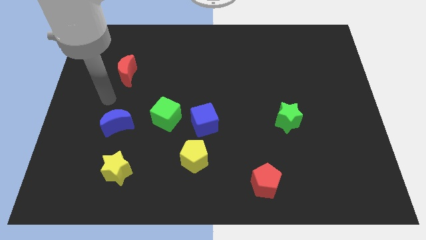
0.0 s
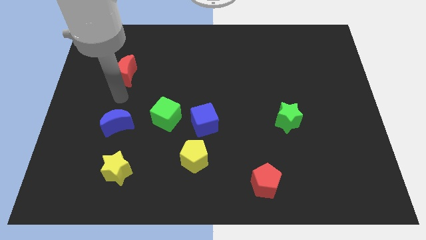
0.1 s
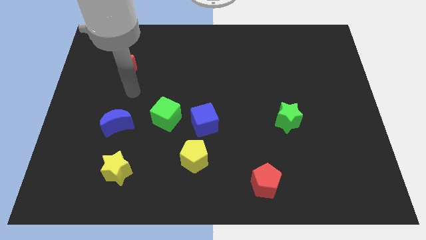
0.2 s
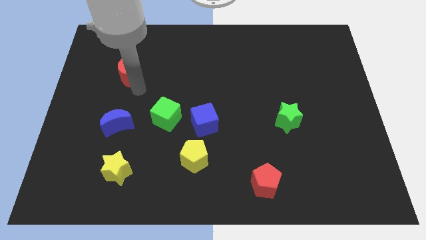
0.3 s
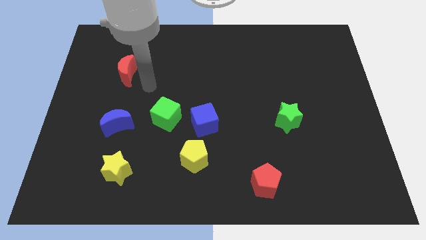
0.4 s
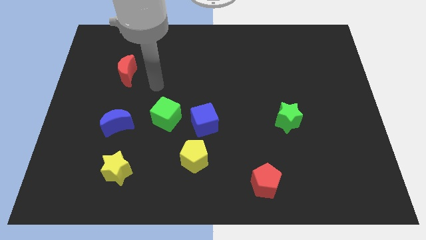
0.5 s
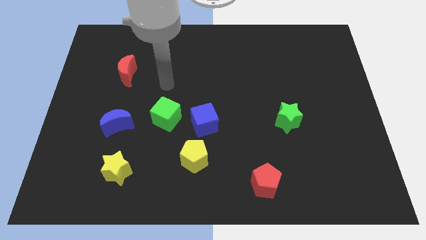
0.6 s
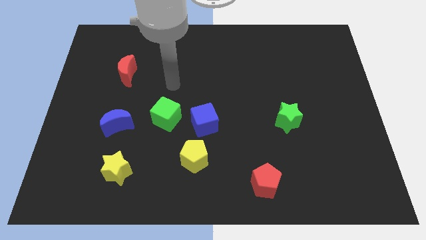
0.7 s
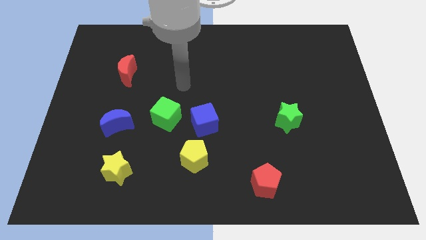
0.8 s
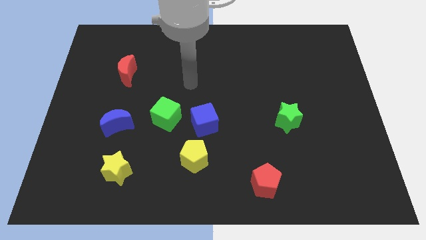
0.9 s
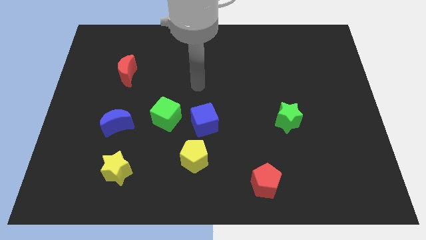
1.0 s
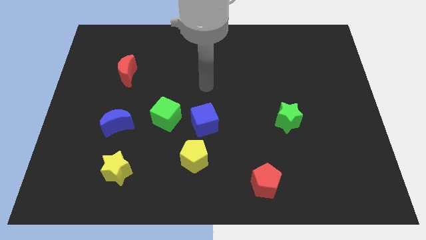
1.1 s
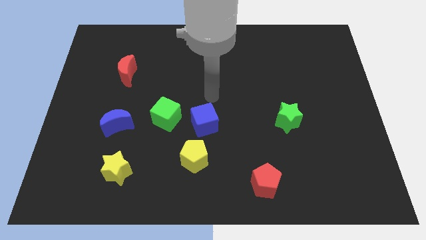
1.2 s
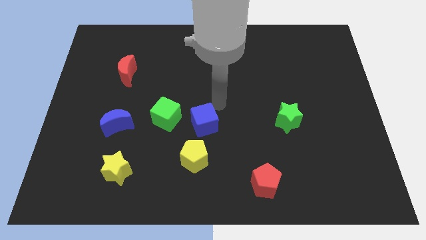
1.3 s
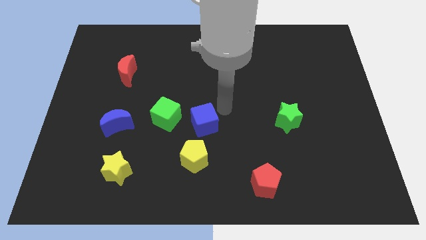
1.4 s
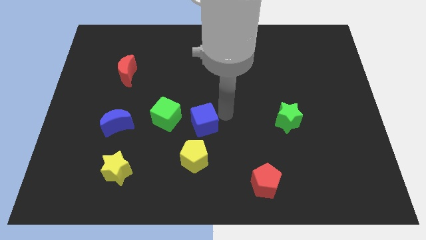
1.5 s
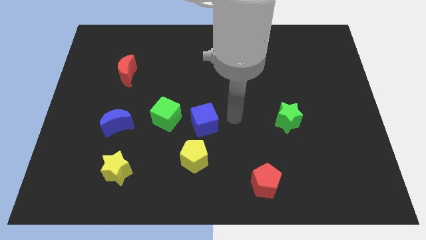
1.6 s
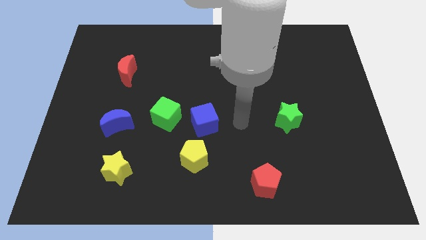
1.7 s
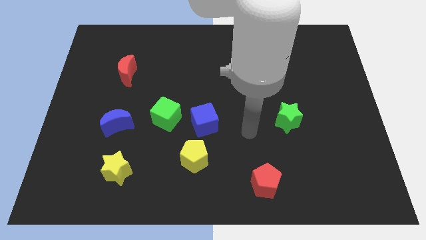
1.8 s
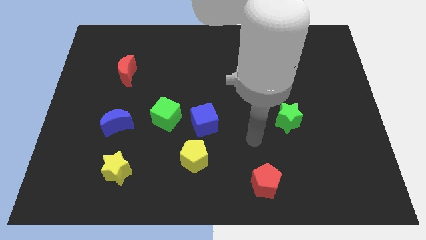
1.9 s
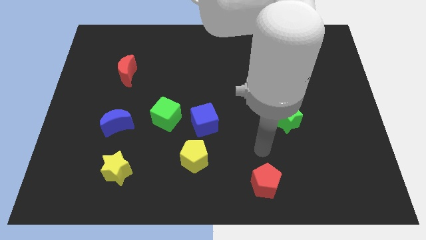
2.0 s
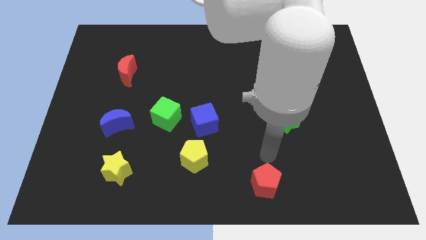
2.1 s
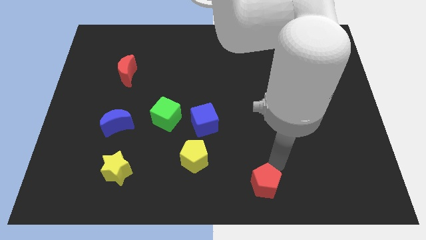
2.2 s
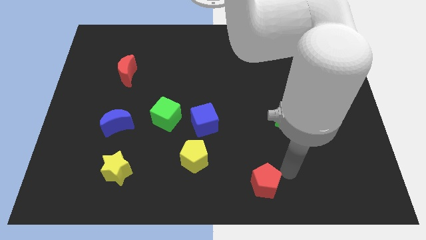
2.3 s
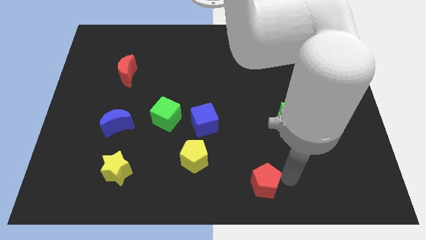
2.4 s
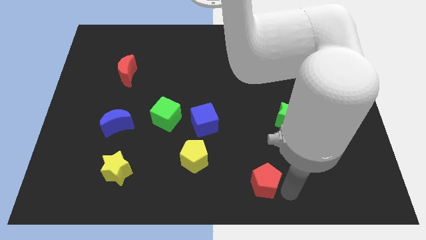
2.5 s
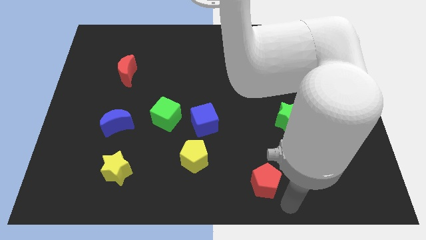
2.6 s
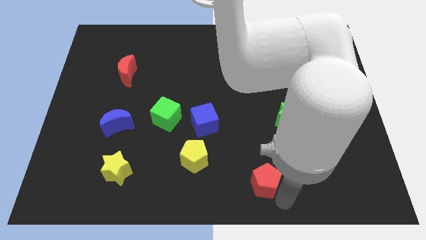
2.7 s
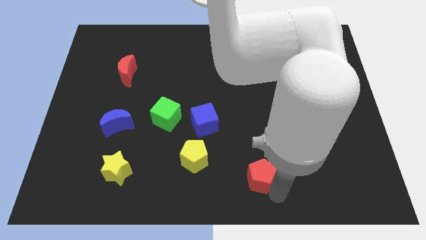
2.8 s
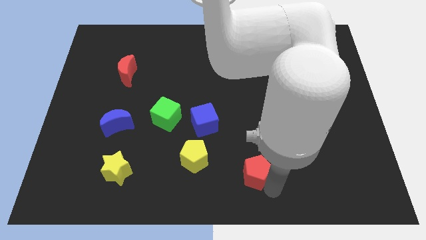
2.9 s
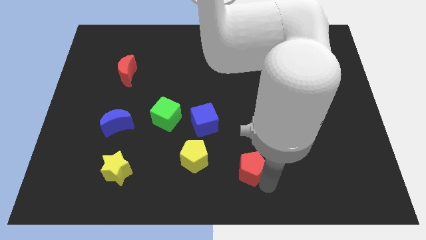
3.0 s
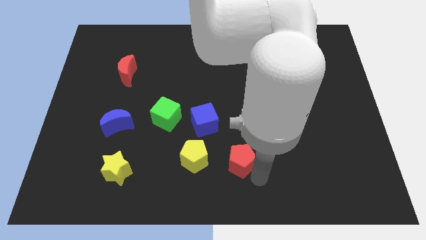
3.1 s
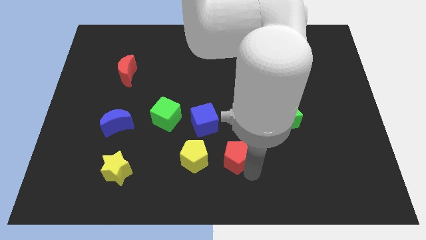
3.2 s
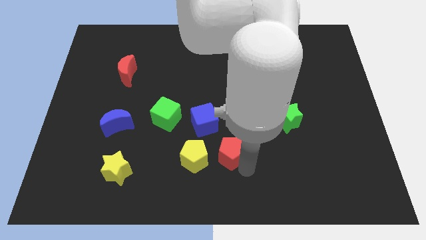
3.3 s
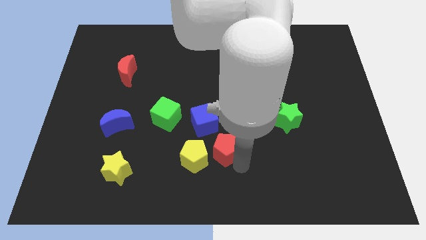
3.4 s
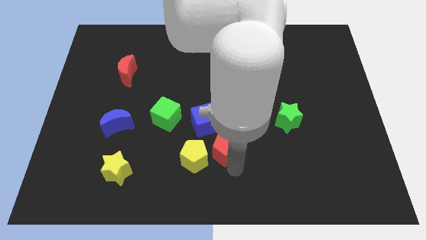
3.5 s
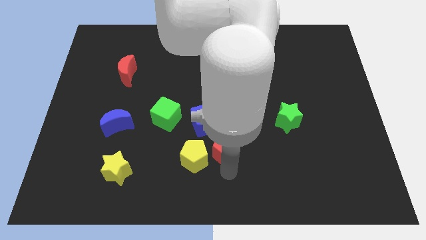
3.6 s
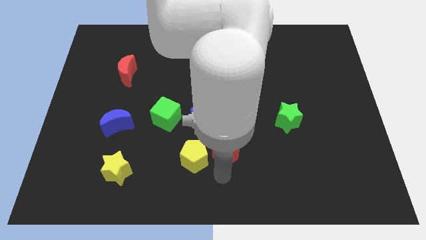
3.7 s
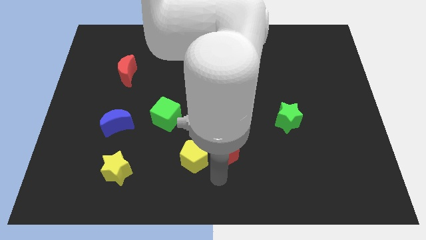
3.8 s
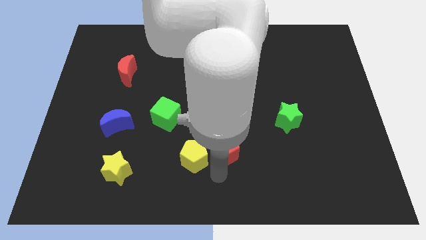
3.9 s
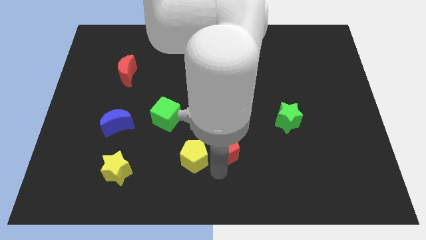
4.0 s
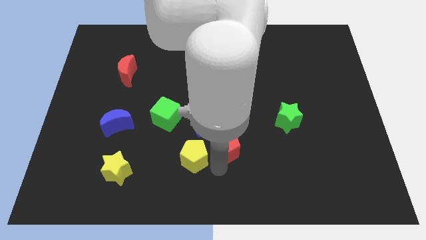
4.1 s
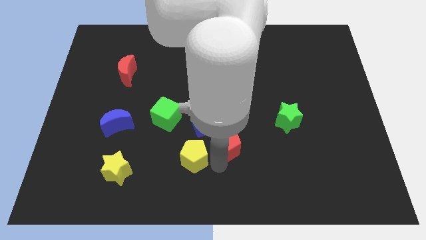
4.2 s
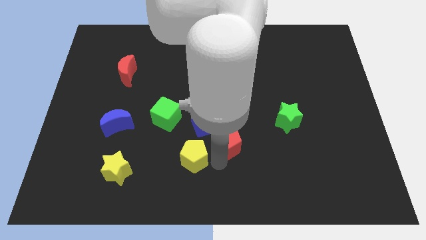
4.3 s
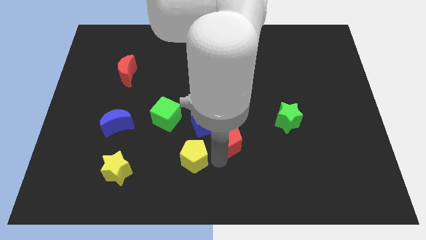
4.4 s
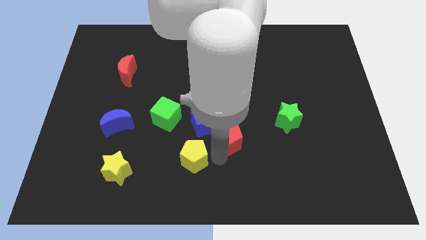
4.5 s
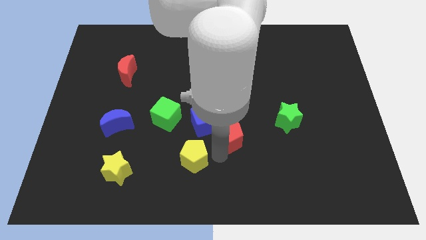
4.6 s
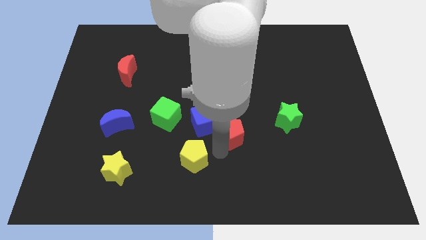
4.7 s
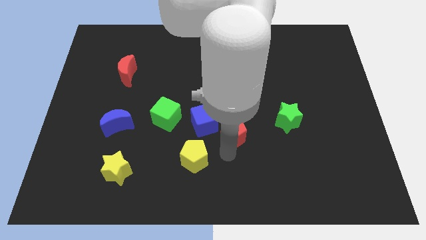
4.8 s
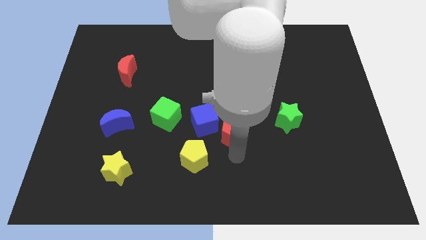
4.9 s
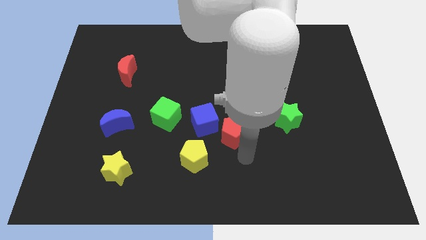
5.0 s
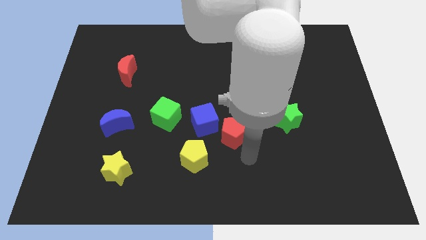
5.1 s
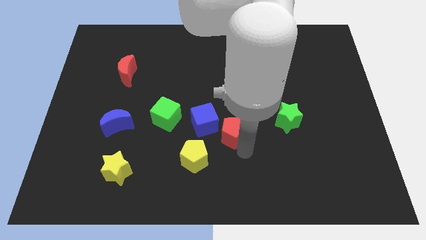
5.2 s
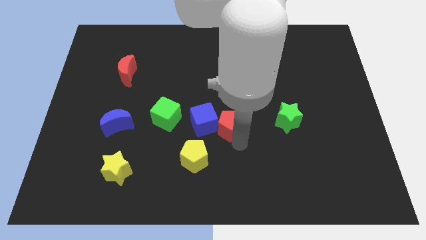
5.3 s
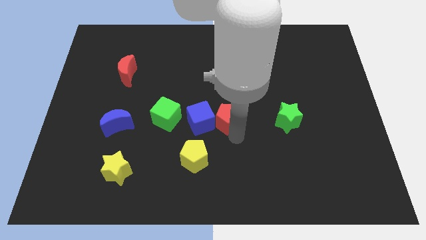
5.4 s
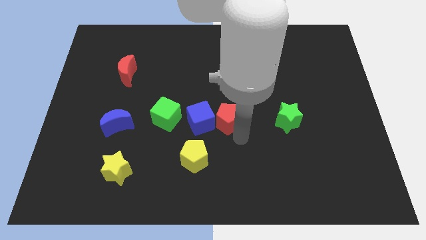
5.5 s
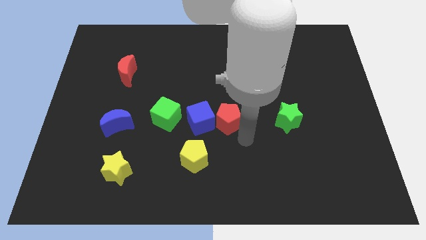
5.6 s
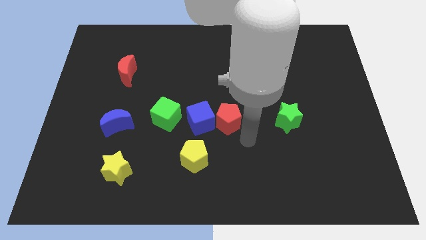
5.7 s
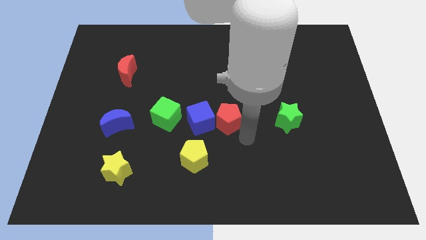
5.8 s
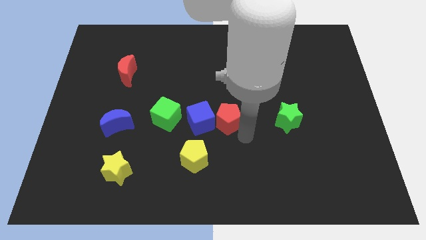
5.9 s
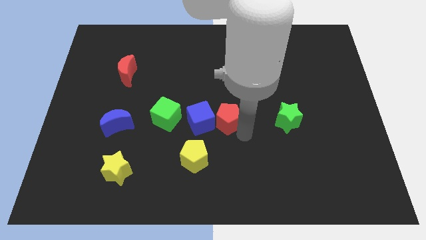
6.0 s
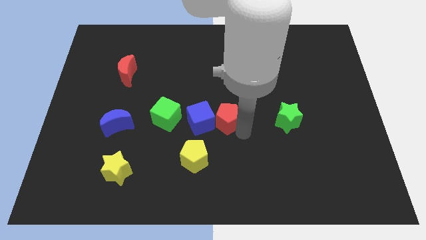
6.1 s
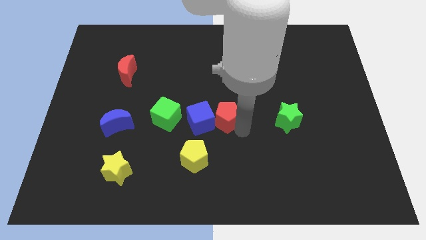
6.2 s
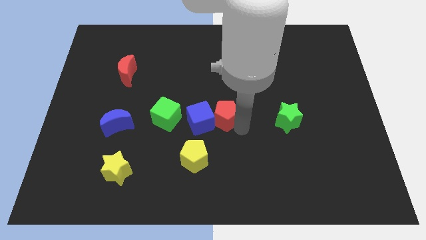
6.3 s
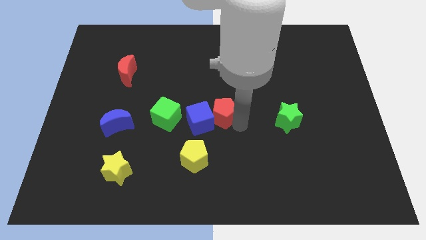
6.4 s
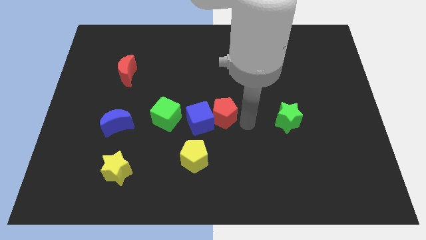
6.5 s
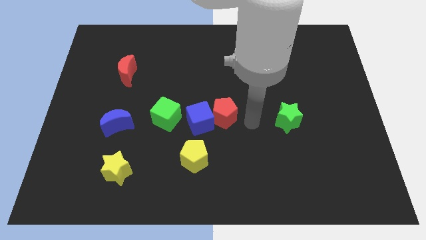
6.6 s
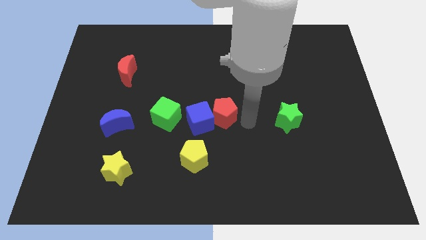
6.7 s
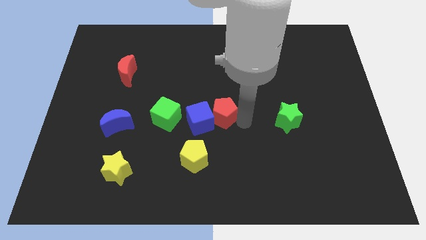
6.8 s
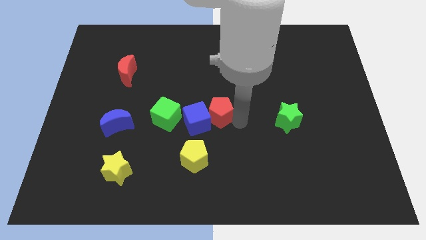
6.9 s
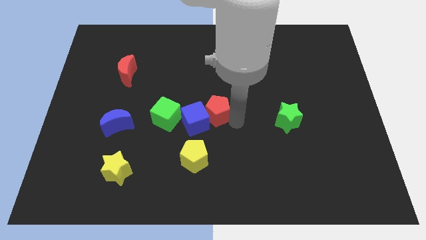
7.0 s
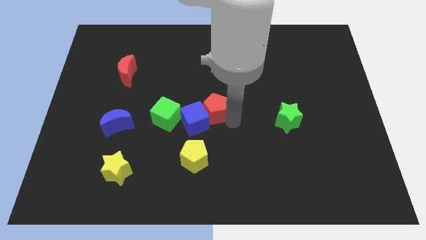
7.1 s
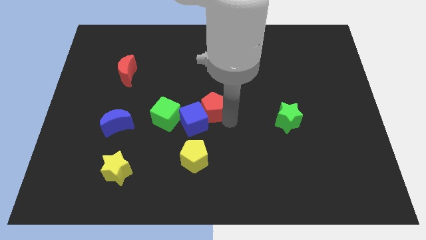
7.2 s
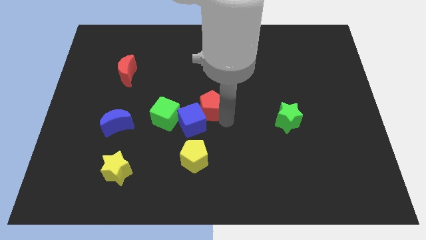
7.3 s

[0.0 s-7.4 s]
slide the red pentagon up and to the left

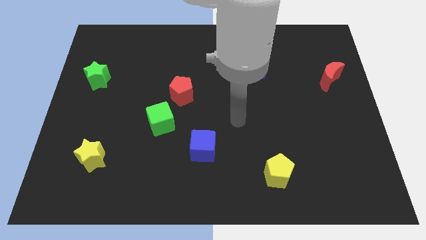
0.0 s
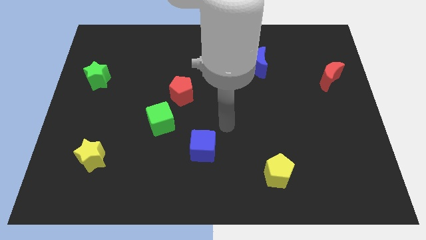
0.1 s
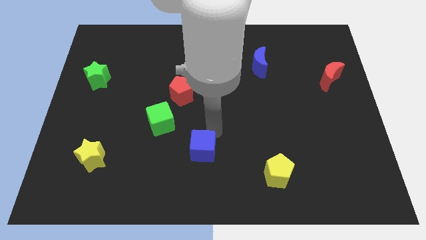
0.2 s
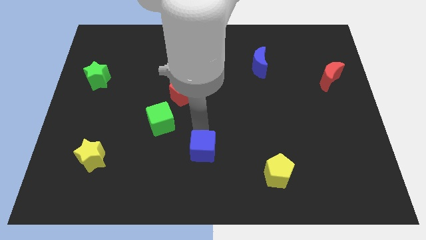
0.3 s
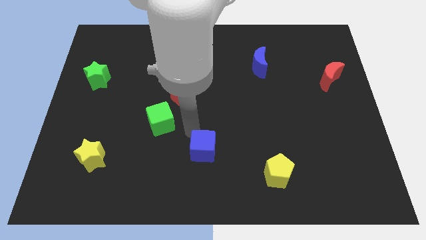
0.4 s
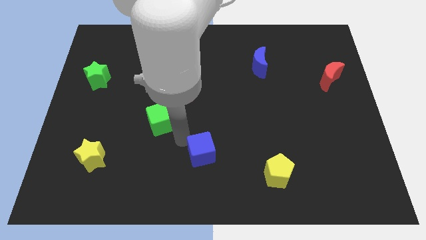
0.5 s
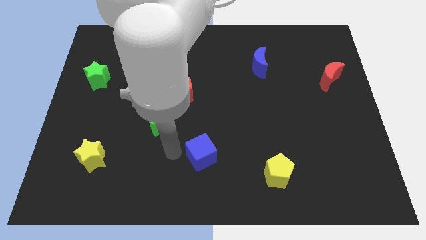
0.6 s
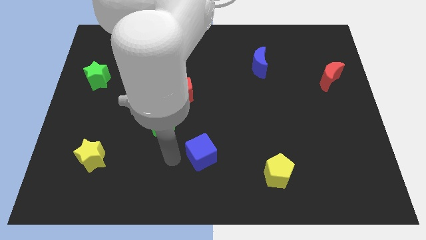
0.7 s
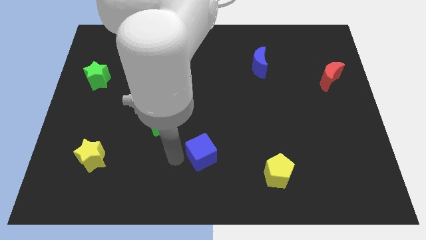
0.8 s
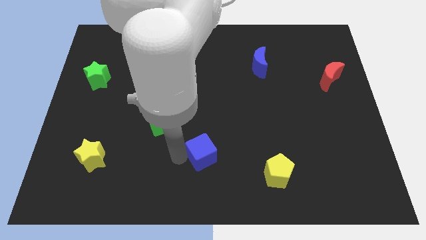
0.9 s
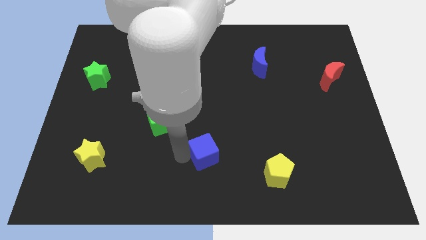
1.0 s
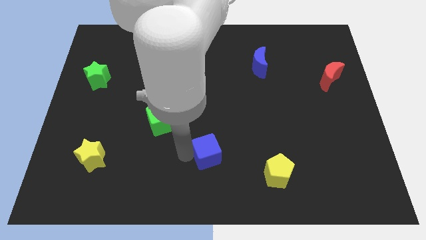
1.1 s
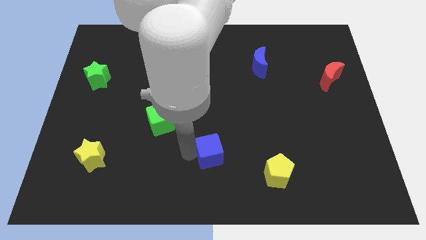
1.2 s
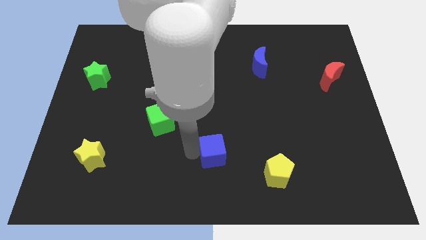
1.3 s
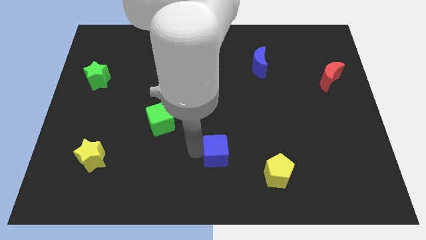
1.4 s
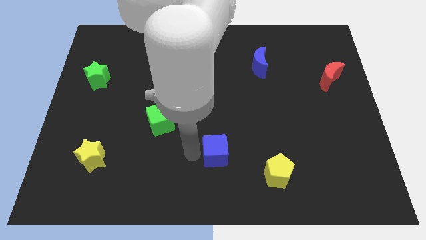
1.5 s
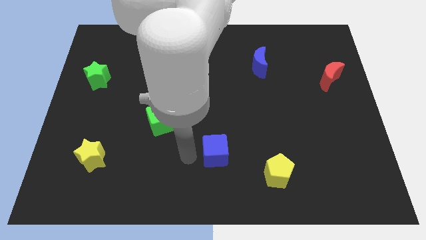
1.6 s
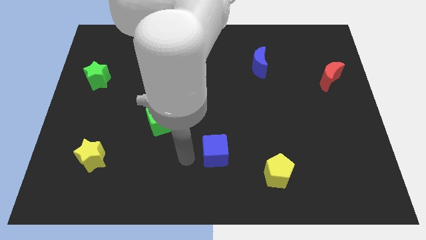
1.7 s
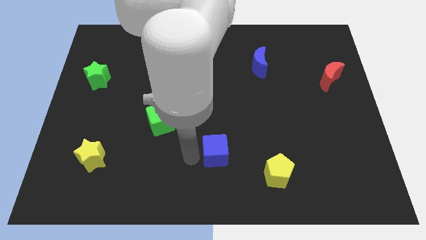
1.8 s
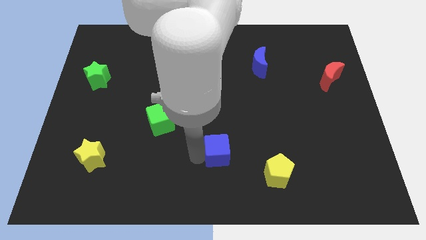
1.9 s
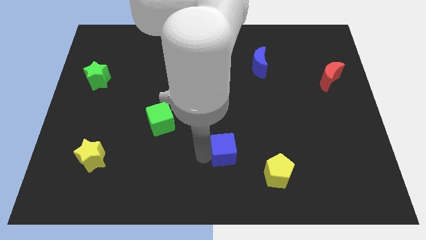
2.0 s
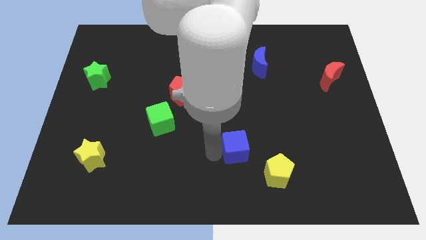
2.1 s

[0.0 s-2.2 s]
slightly move the blue cube right
